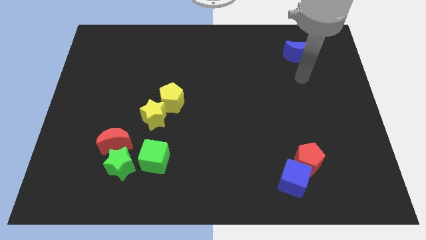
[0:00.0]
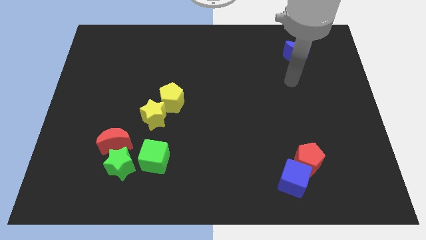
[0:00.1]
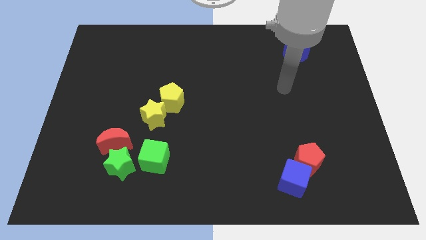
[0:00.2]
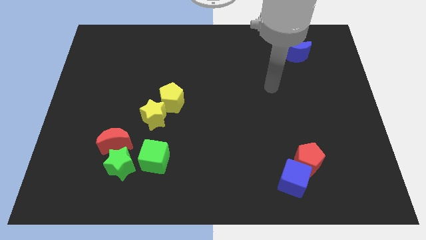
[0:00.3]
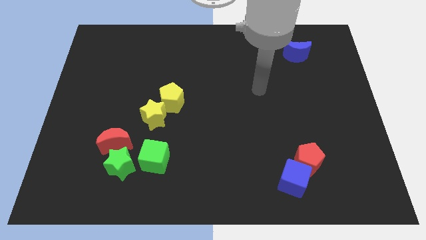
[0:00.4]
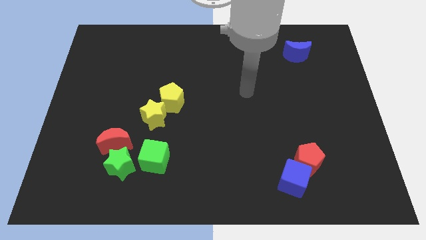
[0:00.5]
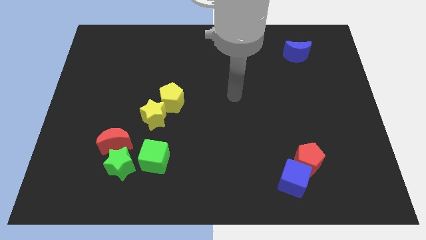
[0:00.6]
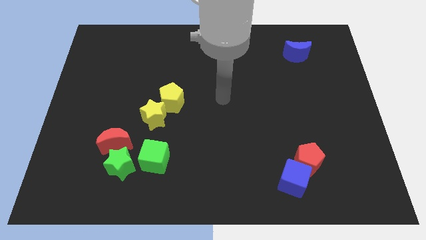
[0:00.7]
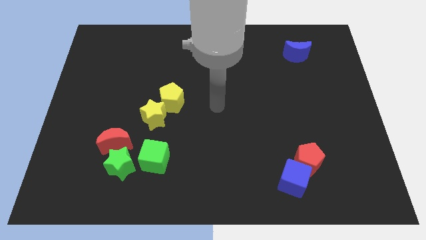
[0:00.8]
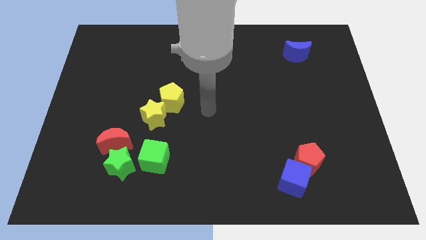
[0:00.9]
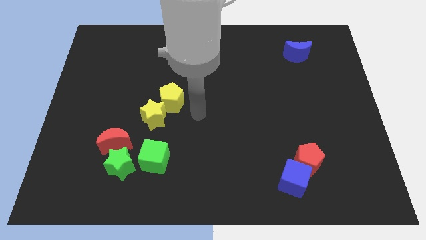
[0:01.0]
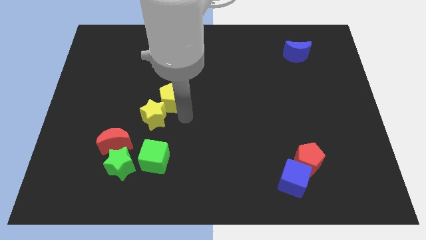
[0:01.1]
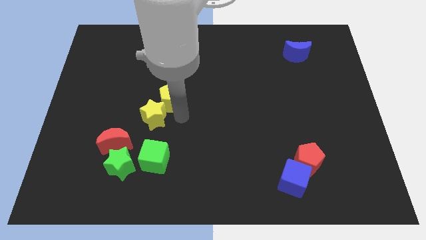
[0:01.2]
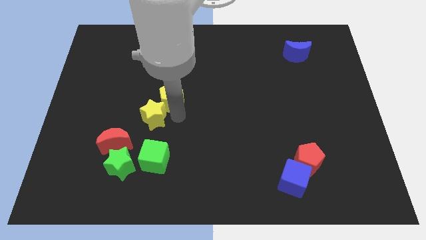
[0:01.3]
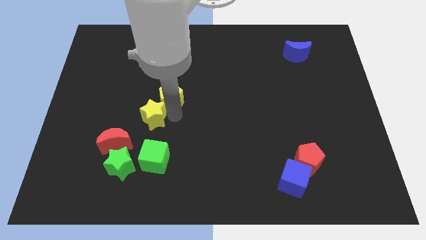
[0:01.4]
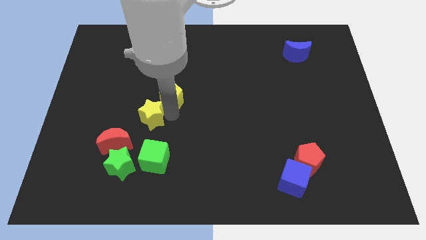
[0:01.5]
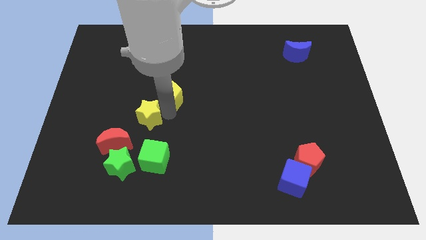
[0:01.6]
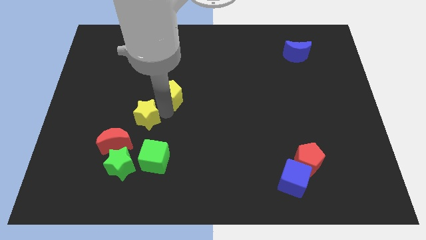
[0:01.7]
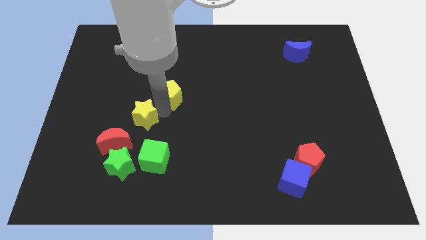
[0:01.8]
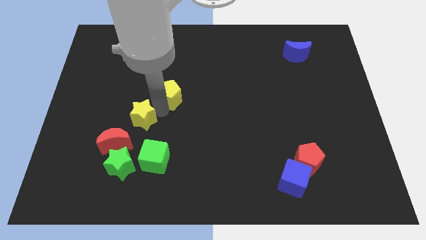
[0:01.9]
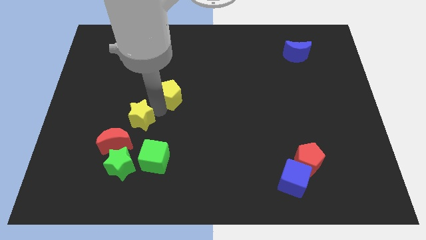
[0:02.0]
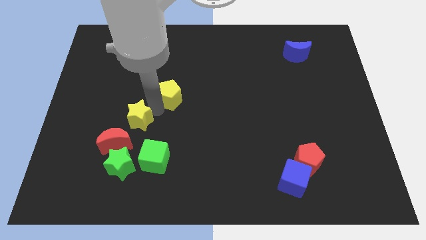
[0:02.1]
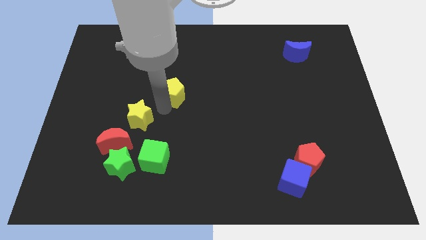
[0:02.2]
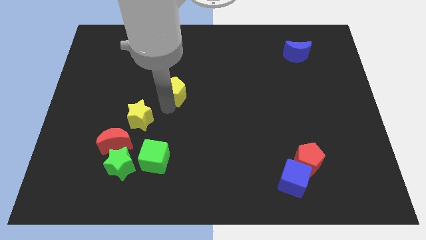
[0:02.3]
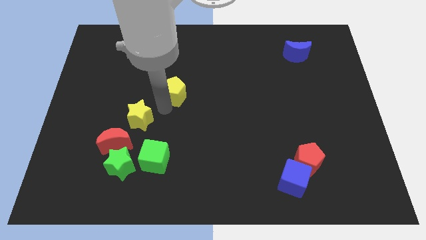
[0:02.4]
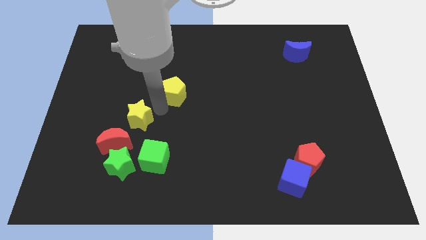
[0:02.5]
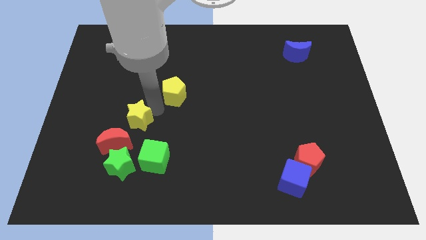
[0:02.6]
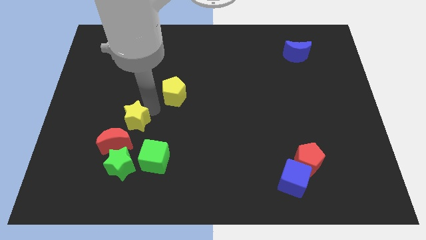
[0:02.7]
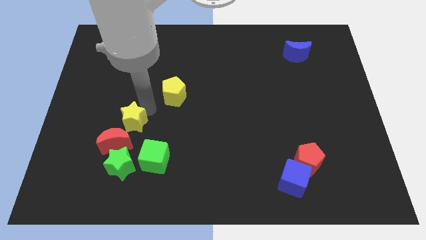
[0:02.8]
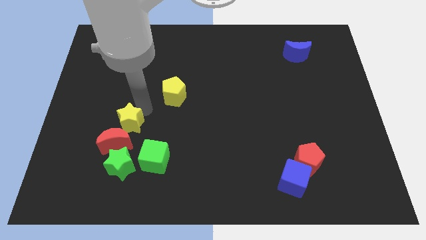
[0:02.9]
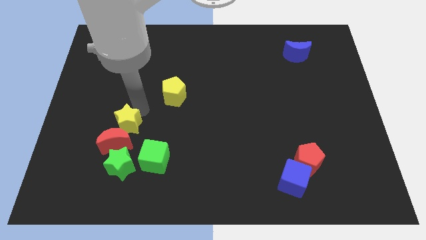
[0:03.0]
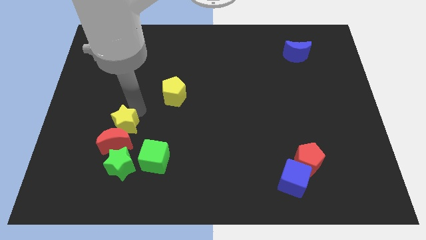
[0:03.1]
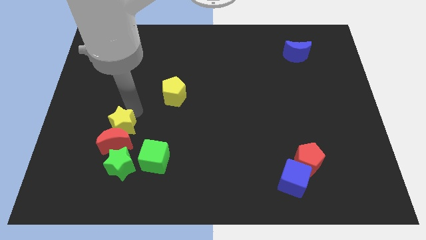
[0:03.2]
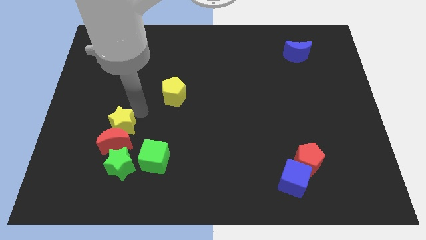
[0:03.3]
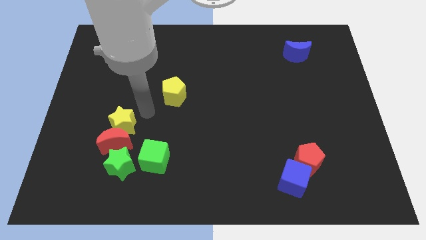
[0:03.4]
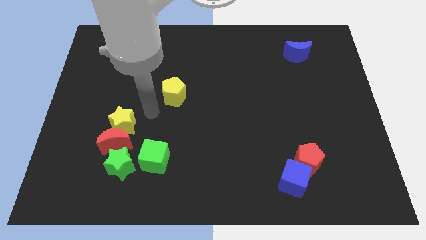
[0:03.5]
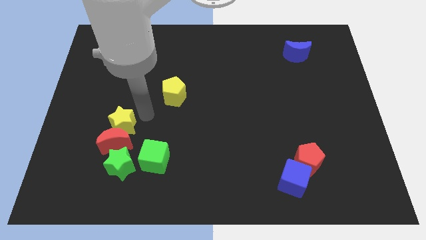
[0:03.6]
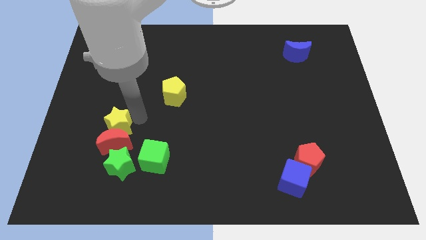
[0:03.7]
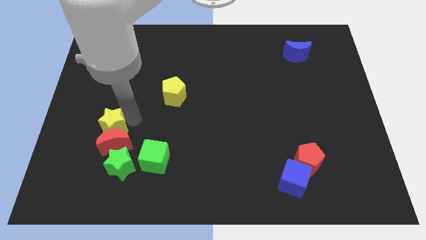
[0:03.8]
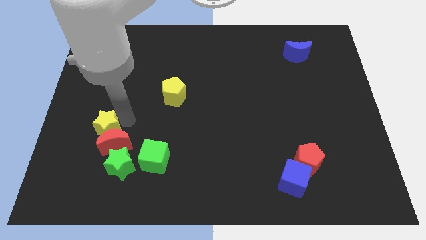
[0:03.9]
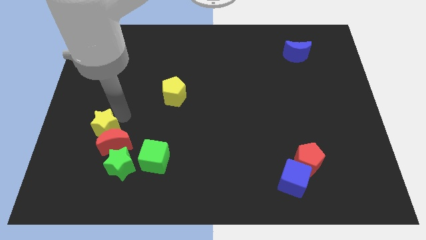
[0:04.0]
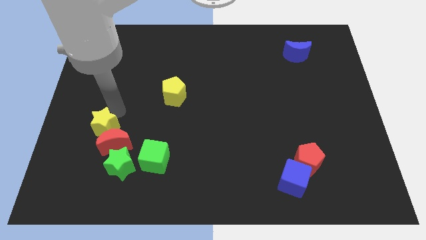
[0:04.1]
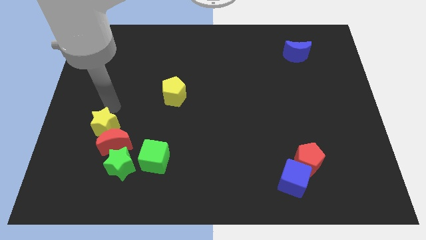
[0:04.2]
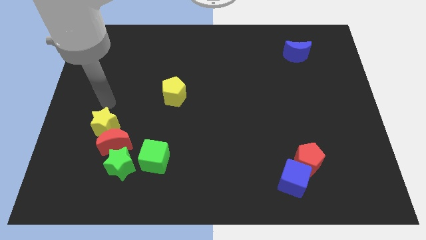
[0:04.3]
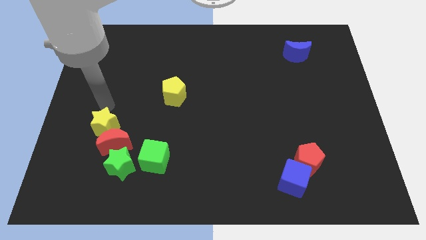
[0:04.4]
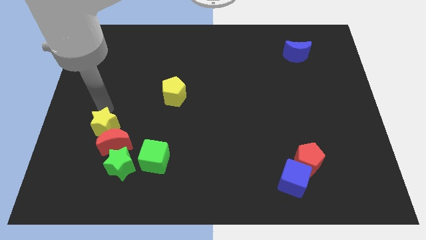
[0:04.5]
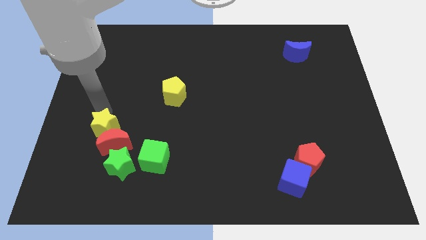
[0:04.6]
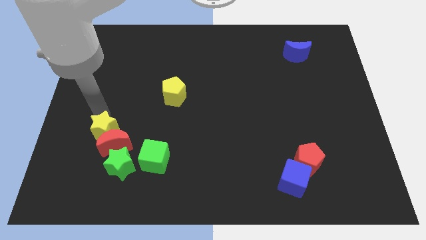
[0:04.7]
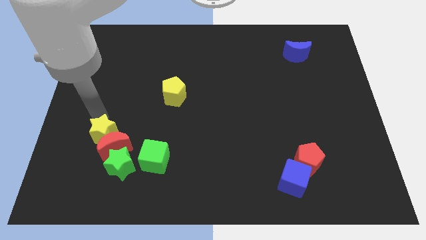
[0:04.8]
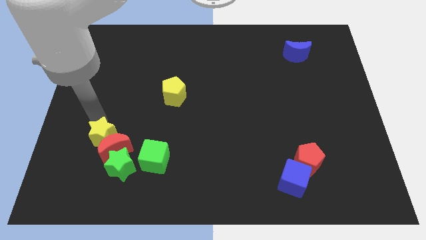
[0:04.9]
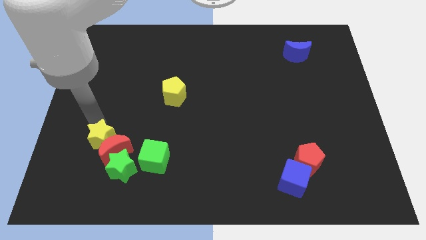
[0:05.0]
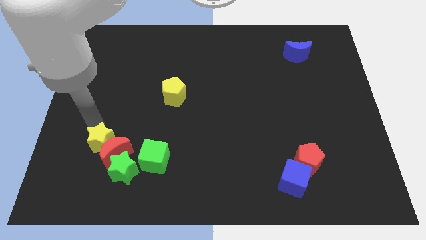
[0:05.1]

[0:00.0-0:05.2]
push the yellow star to the left side of the green cube

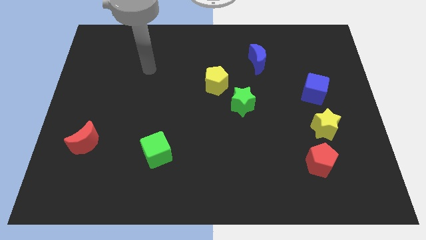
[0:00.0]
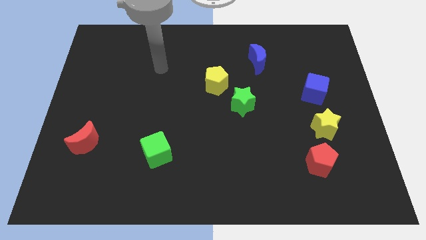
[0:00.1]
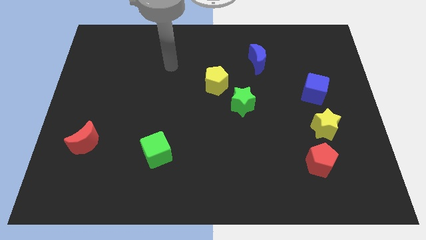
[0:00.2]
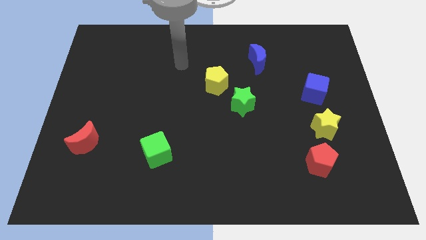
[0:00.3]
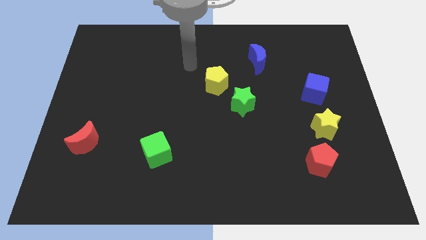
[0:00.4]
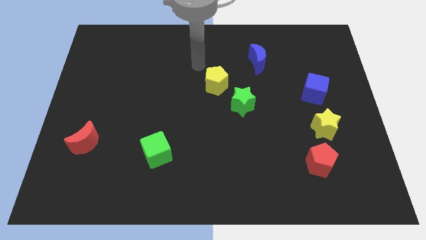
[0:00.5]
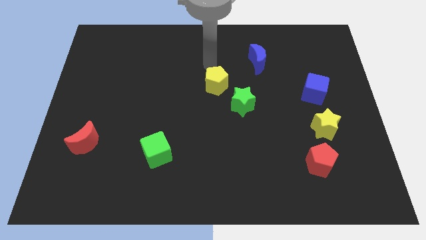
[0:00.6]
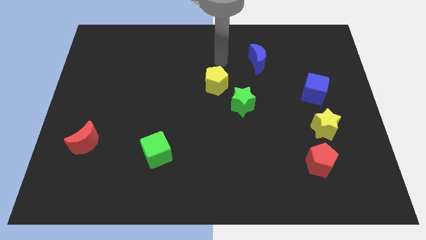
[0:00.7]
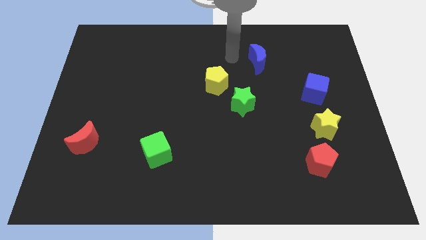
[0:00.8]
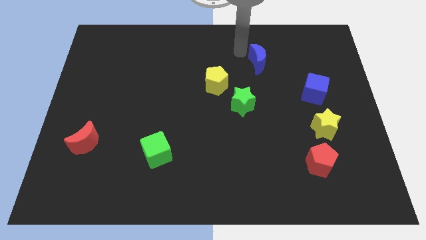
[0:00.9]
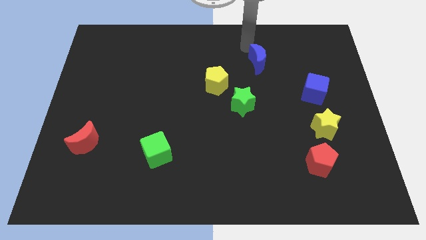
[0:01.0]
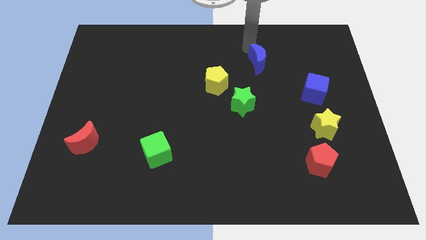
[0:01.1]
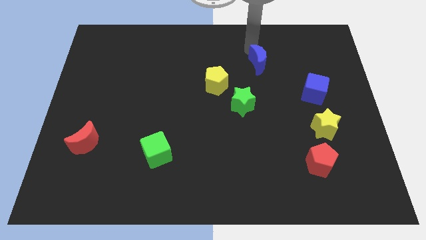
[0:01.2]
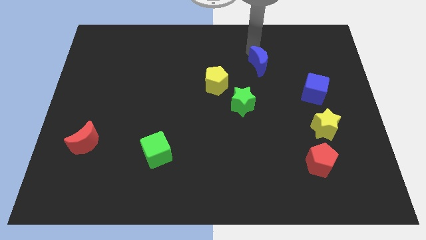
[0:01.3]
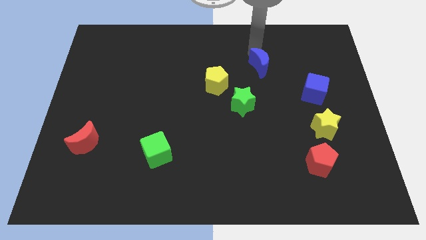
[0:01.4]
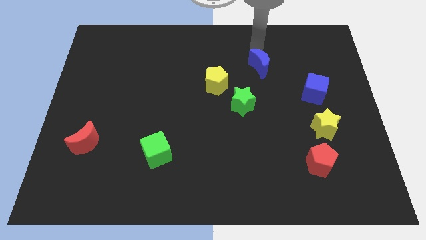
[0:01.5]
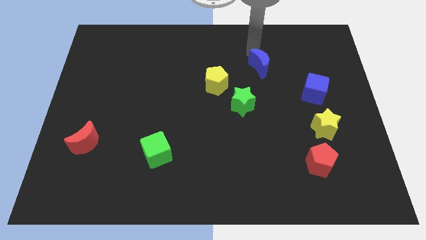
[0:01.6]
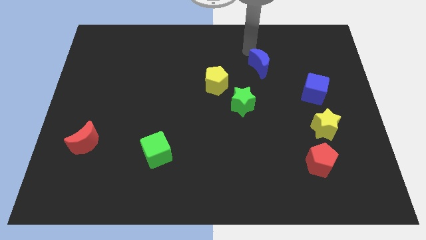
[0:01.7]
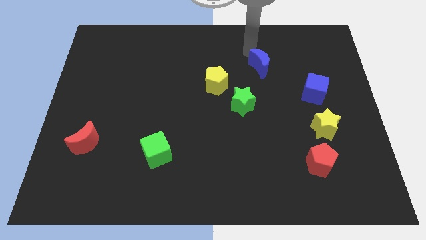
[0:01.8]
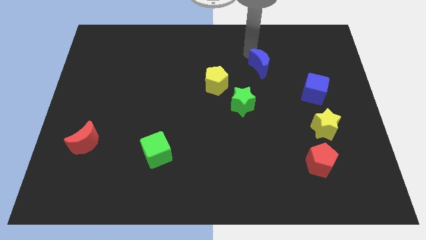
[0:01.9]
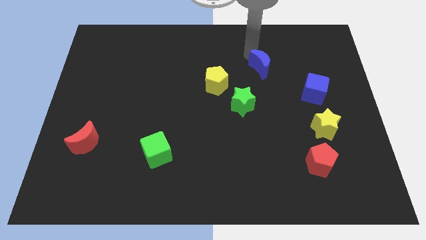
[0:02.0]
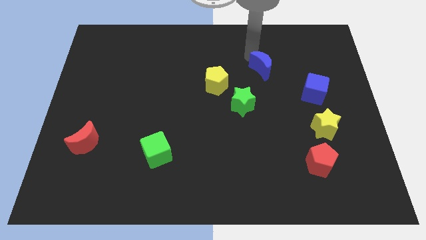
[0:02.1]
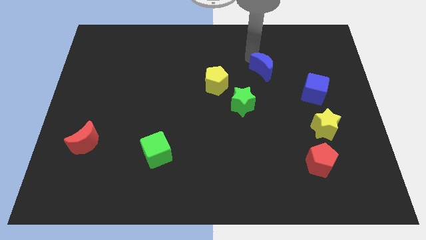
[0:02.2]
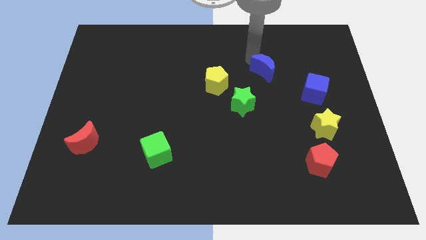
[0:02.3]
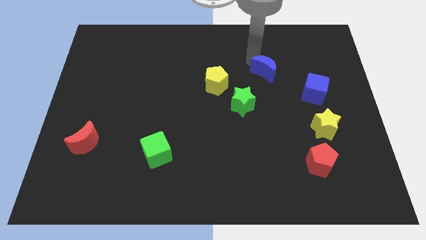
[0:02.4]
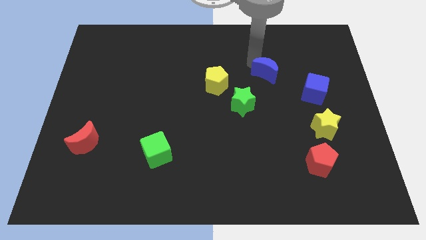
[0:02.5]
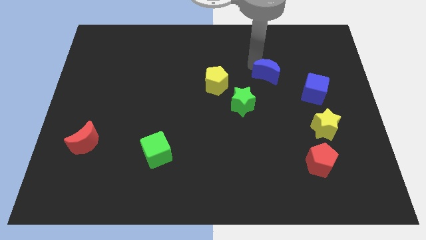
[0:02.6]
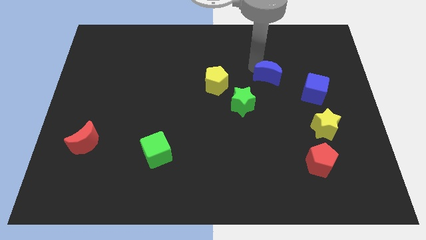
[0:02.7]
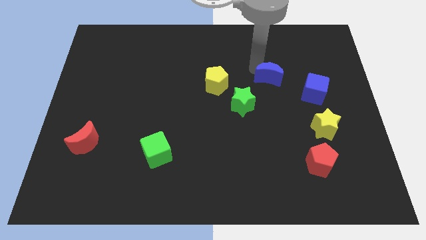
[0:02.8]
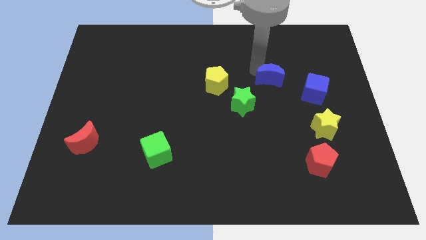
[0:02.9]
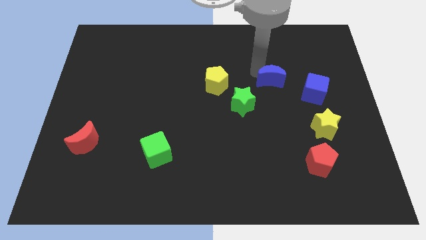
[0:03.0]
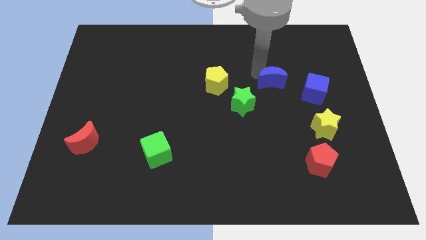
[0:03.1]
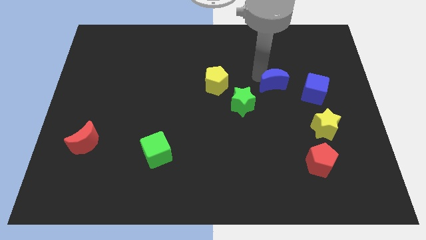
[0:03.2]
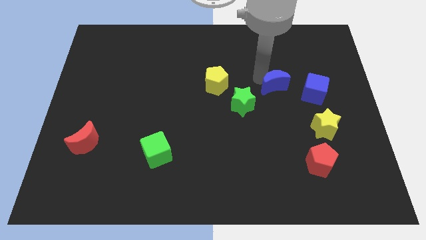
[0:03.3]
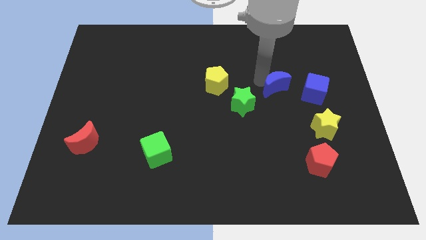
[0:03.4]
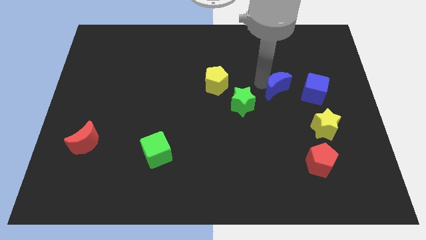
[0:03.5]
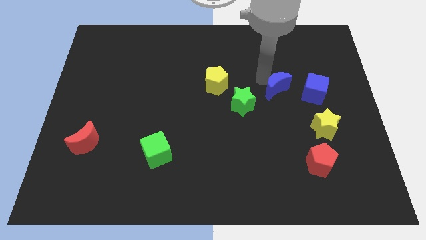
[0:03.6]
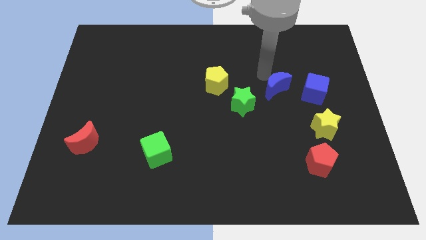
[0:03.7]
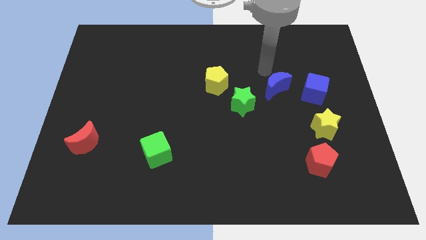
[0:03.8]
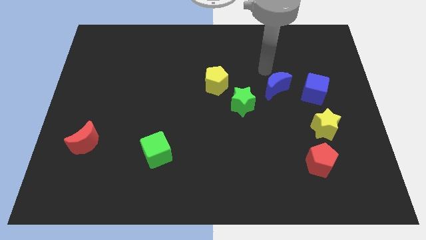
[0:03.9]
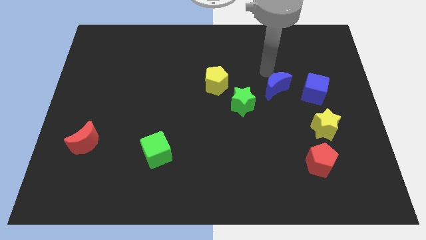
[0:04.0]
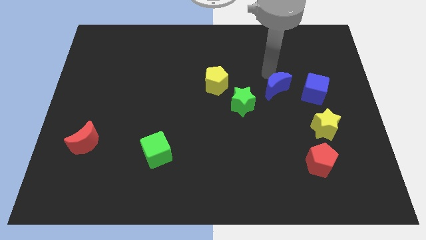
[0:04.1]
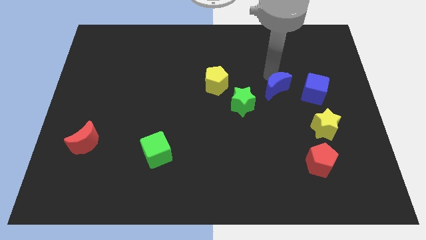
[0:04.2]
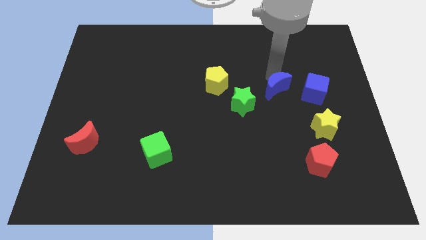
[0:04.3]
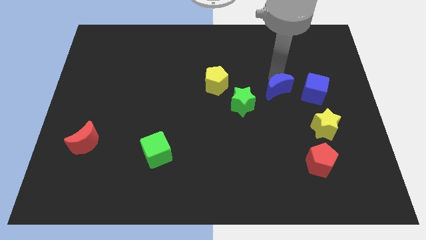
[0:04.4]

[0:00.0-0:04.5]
move the blue moon just right of the green star
